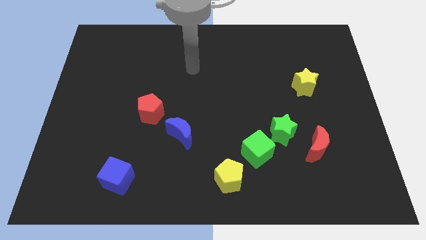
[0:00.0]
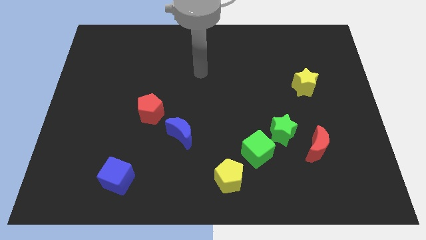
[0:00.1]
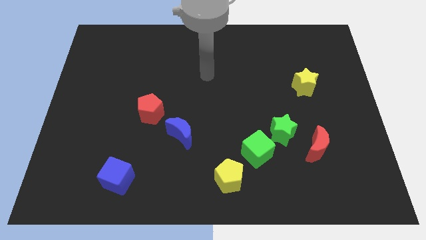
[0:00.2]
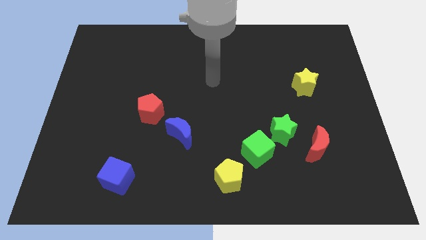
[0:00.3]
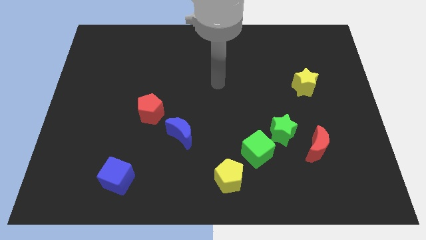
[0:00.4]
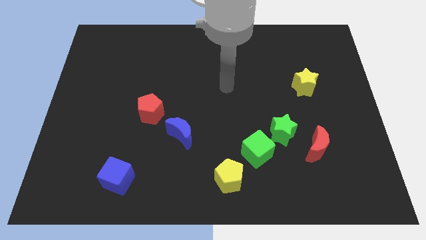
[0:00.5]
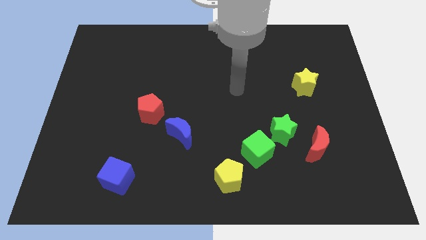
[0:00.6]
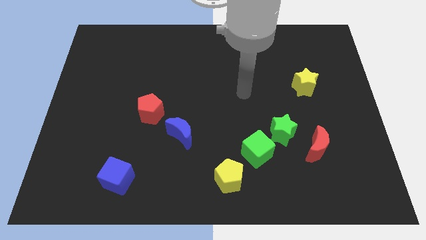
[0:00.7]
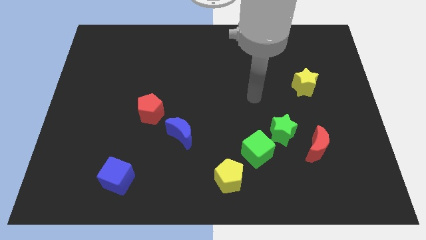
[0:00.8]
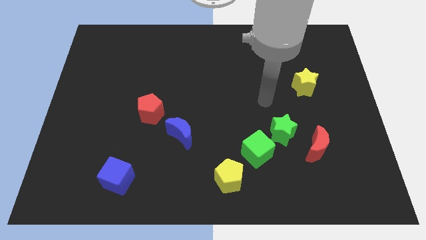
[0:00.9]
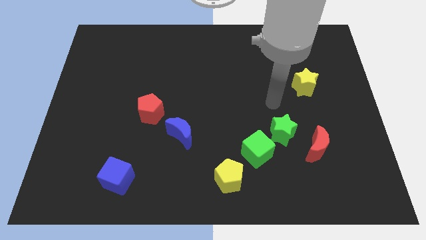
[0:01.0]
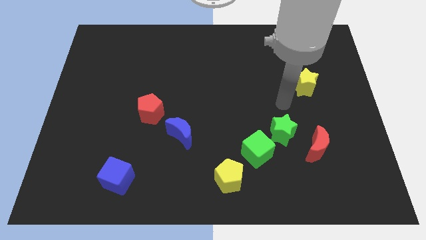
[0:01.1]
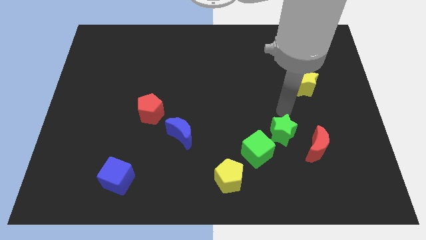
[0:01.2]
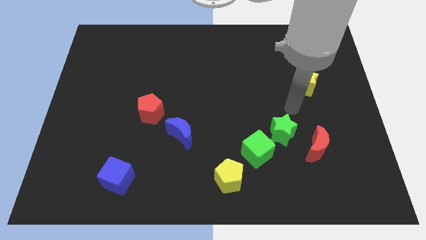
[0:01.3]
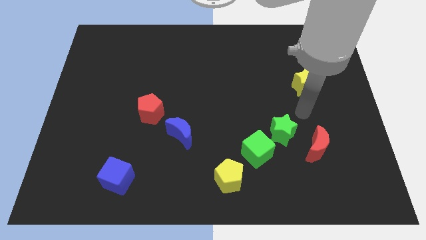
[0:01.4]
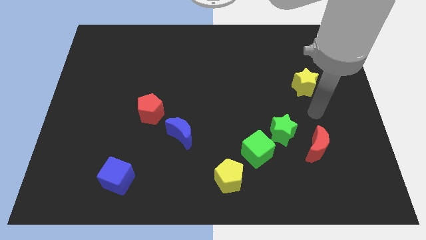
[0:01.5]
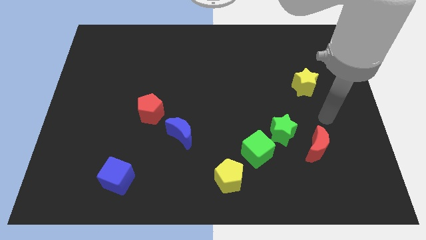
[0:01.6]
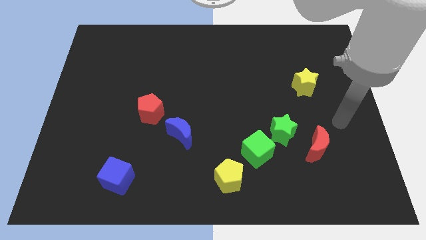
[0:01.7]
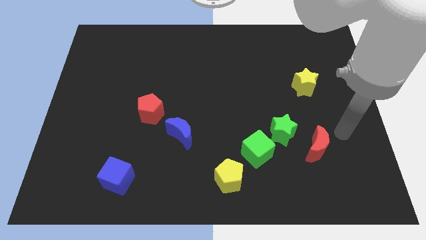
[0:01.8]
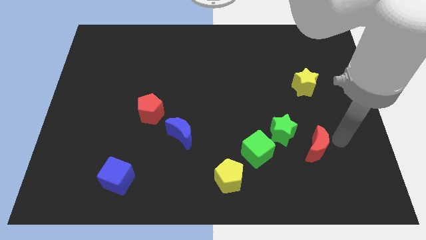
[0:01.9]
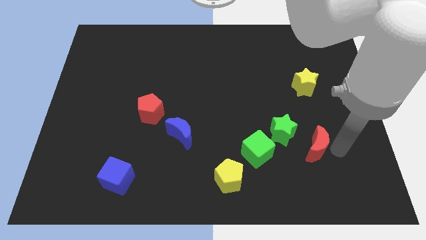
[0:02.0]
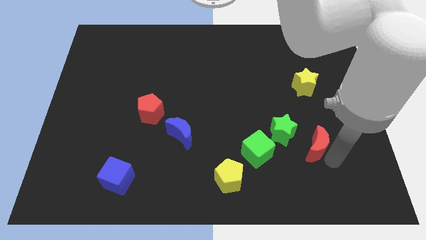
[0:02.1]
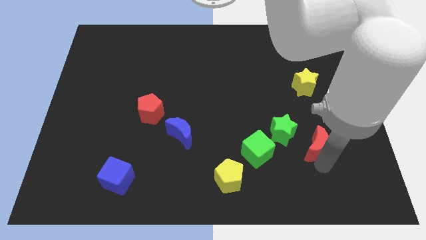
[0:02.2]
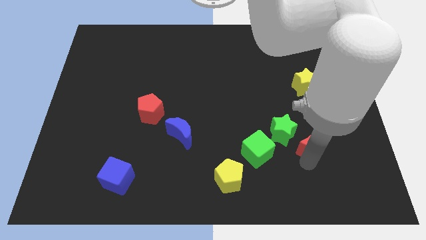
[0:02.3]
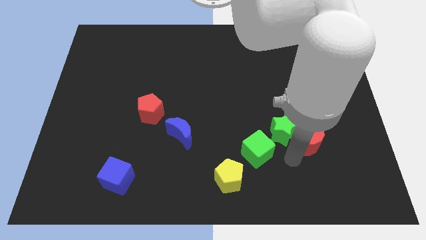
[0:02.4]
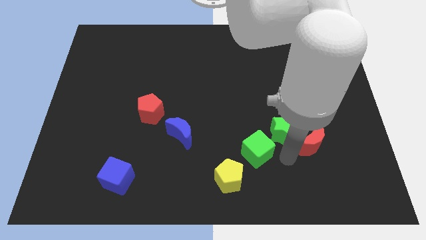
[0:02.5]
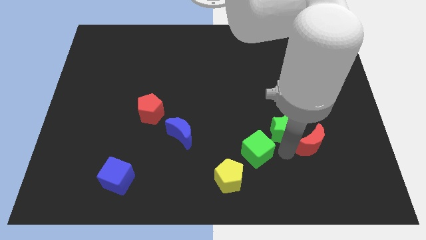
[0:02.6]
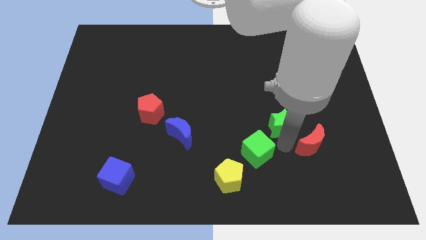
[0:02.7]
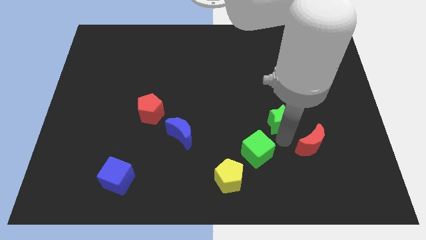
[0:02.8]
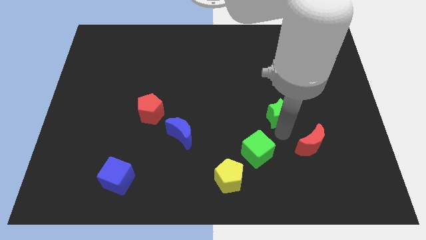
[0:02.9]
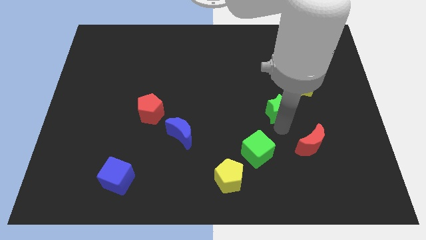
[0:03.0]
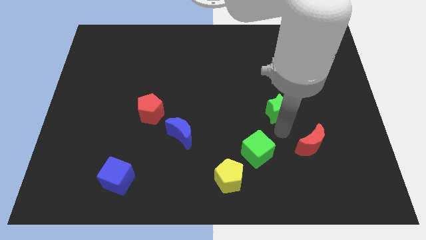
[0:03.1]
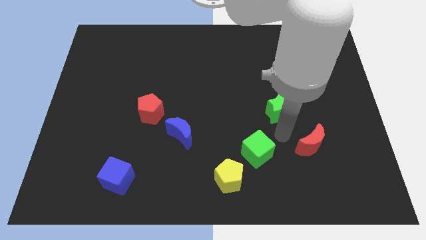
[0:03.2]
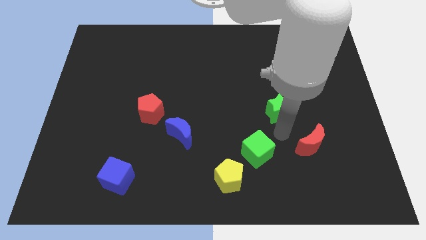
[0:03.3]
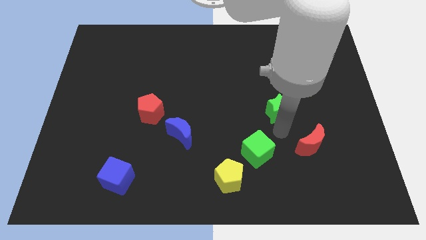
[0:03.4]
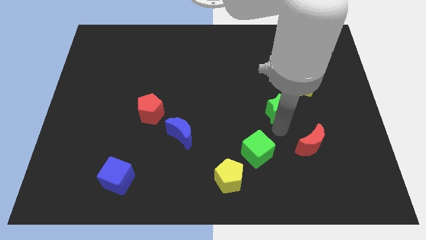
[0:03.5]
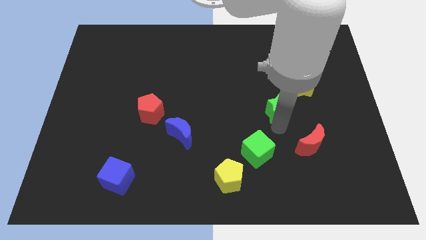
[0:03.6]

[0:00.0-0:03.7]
move the green star away from the green cube and red moon

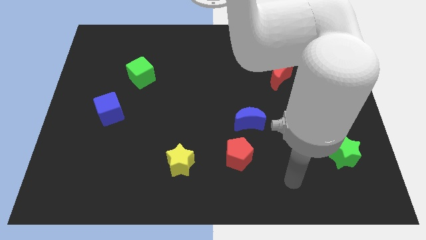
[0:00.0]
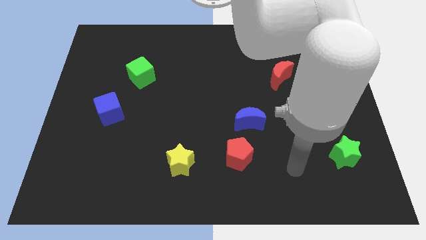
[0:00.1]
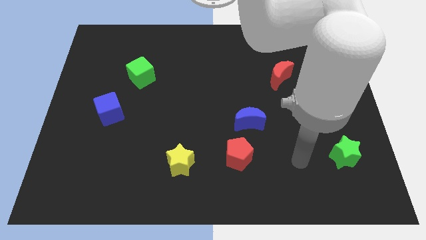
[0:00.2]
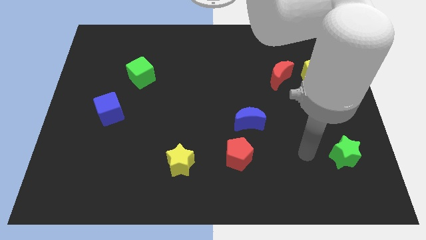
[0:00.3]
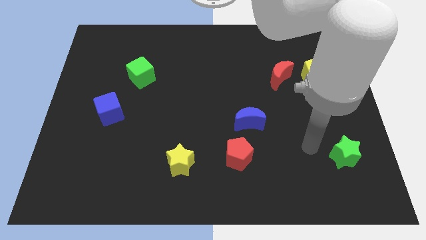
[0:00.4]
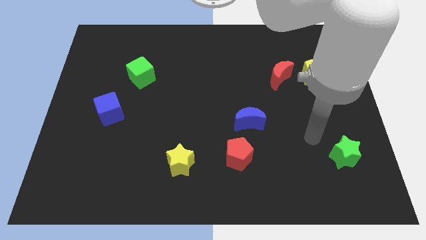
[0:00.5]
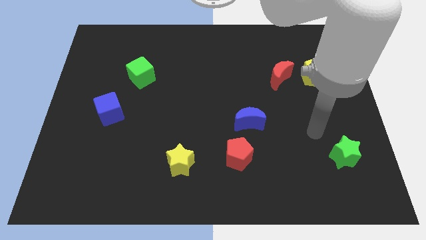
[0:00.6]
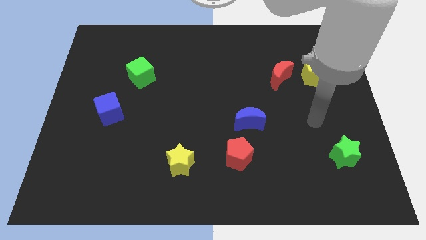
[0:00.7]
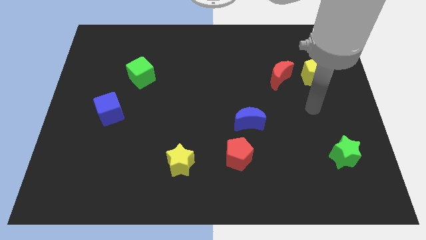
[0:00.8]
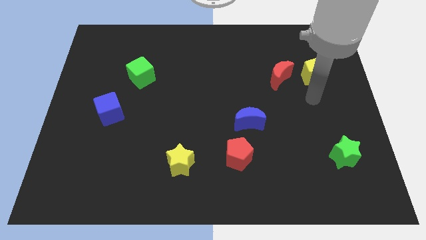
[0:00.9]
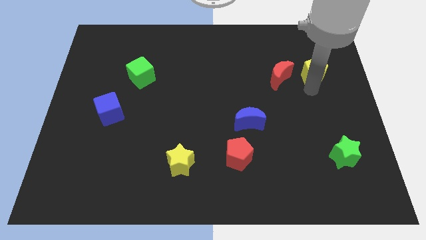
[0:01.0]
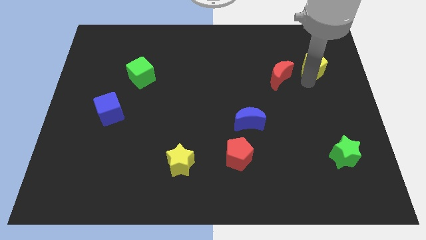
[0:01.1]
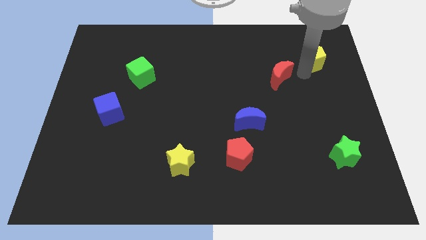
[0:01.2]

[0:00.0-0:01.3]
pull the red moon apart from the yellow pentagon

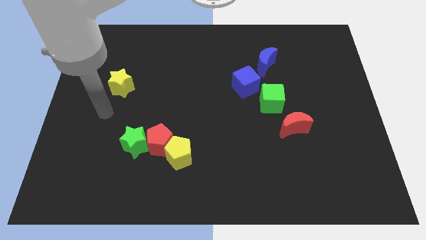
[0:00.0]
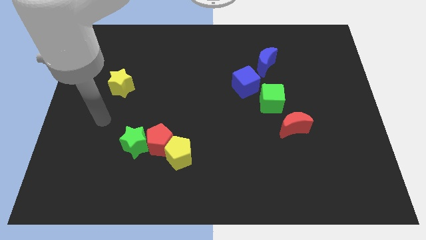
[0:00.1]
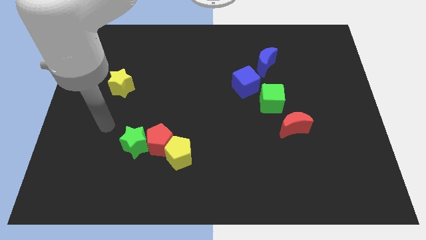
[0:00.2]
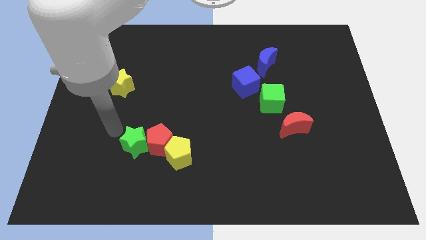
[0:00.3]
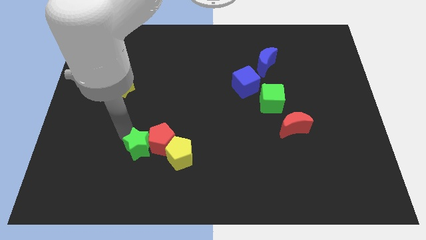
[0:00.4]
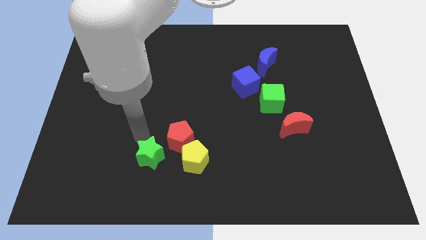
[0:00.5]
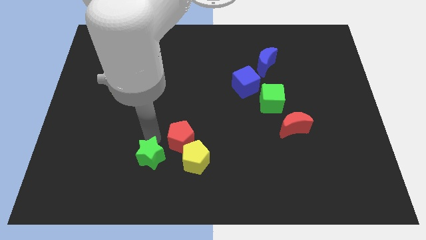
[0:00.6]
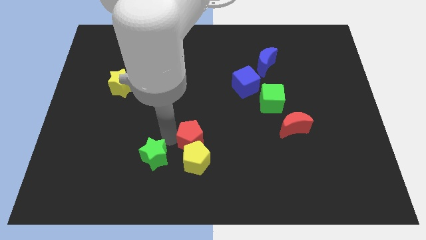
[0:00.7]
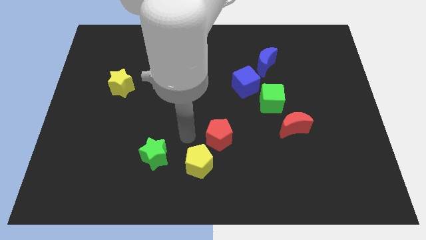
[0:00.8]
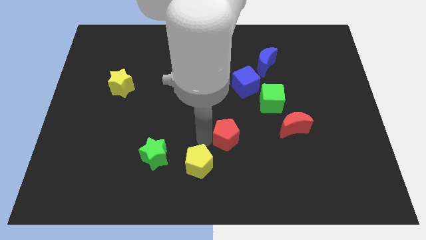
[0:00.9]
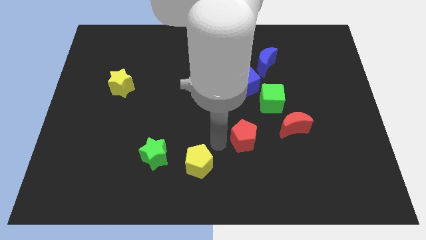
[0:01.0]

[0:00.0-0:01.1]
separate the yellow pentagon from the red pentagon

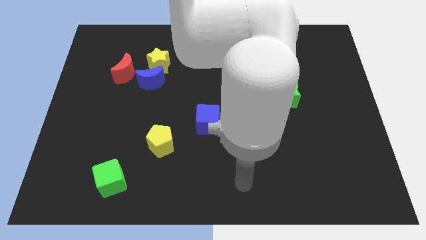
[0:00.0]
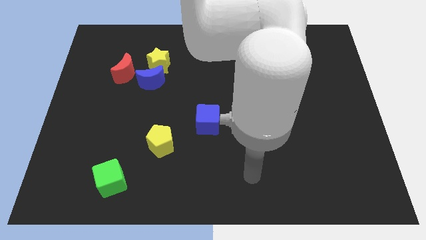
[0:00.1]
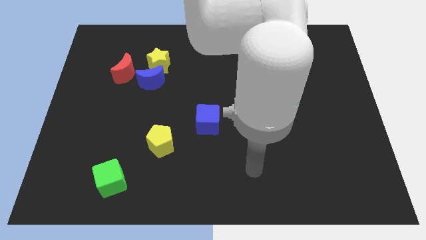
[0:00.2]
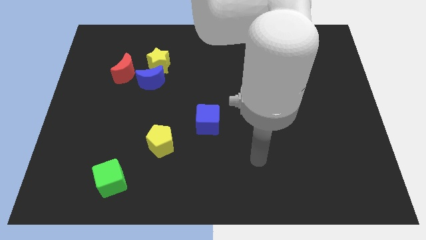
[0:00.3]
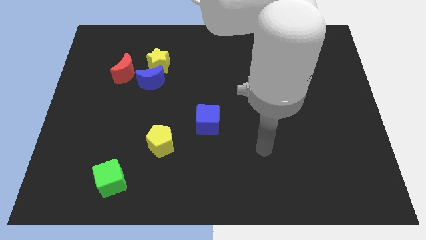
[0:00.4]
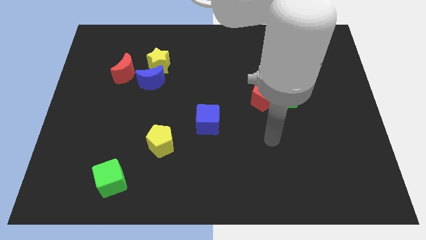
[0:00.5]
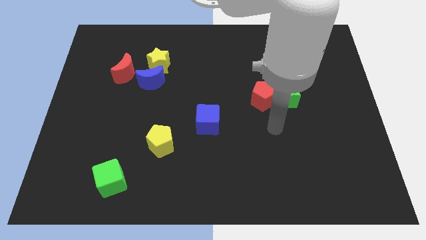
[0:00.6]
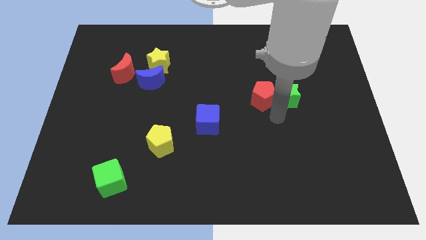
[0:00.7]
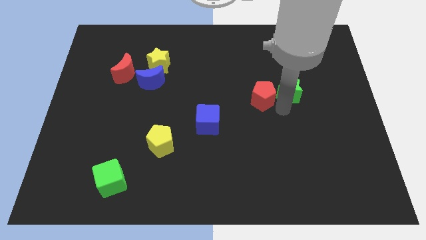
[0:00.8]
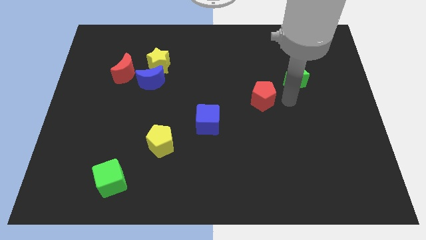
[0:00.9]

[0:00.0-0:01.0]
separate the red pentagon from the green star

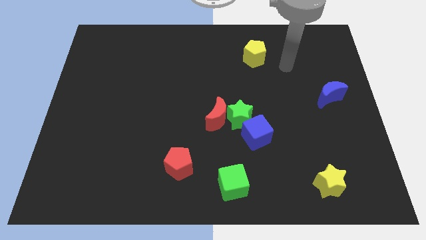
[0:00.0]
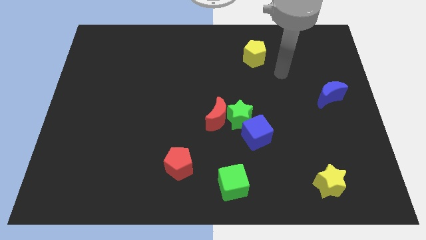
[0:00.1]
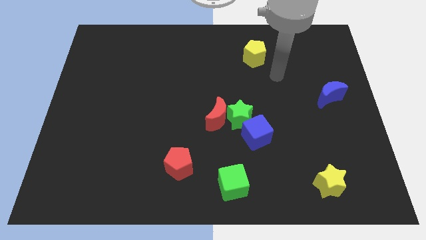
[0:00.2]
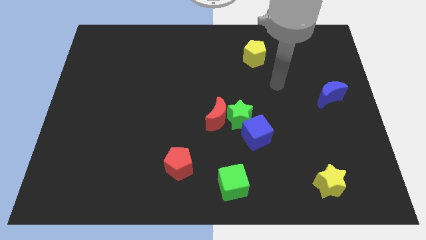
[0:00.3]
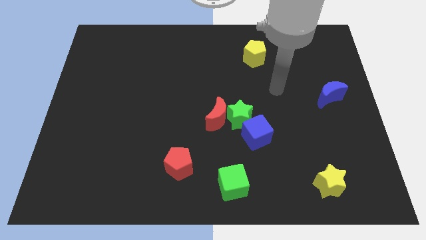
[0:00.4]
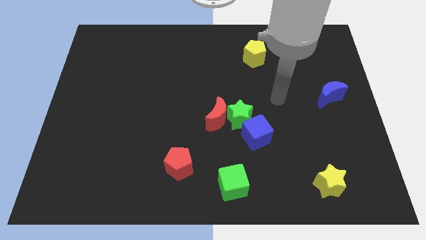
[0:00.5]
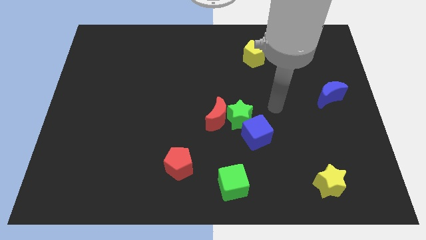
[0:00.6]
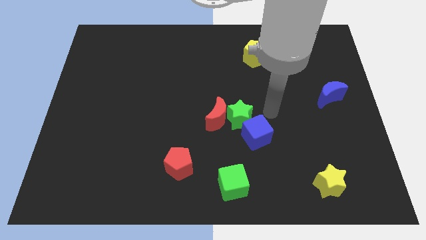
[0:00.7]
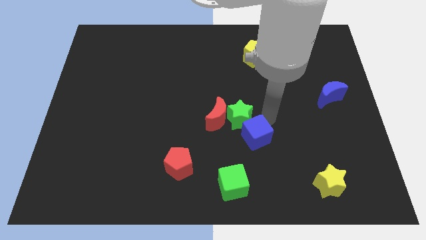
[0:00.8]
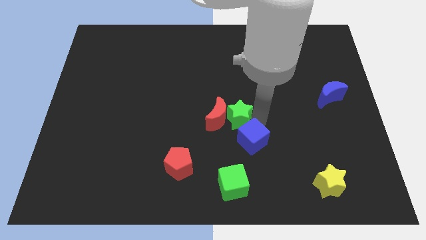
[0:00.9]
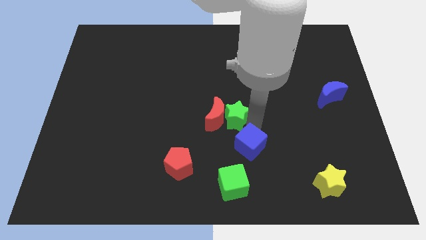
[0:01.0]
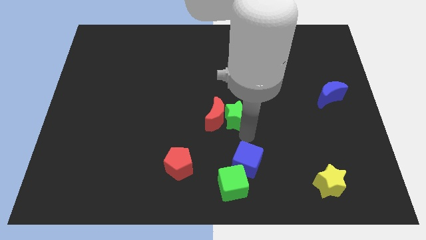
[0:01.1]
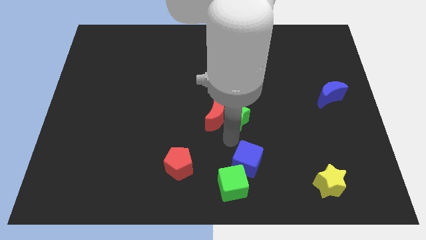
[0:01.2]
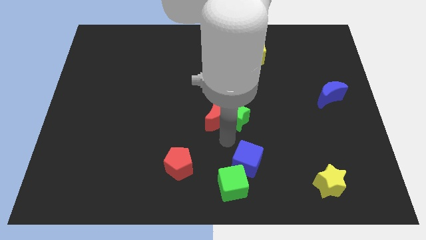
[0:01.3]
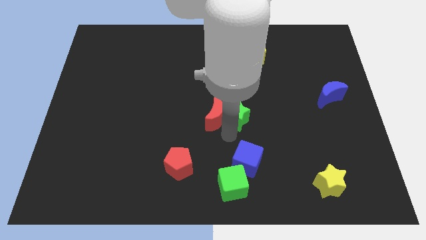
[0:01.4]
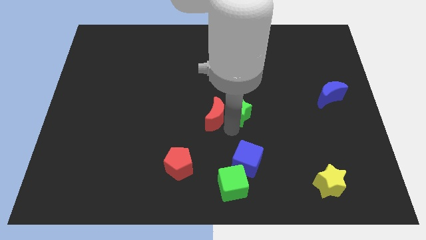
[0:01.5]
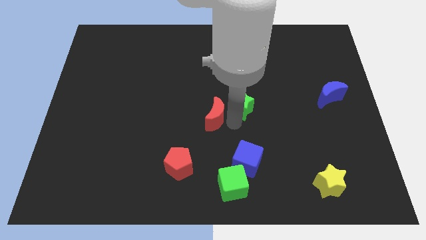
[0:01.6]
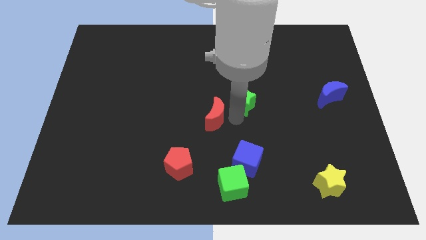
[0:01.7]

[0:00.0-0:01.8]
pull the green star apart from the red moon and blue cube

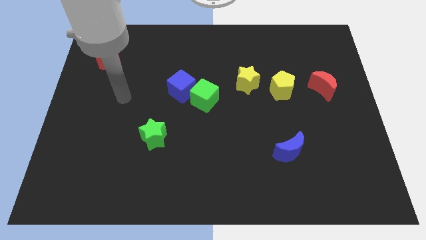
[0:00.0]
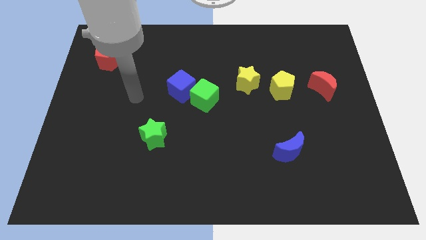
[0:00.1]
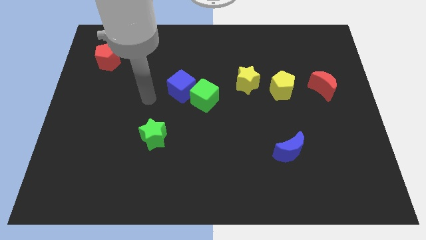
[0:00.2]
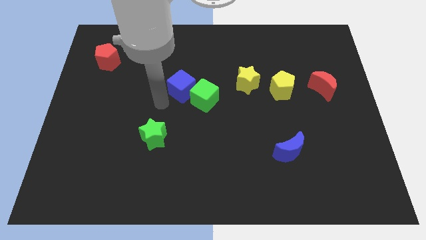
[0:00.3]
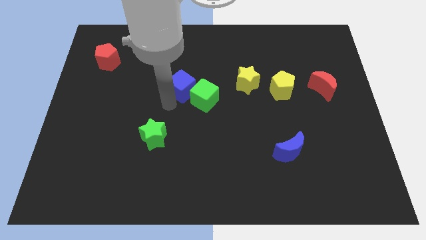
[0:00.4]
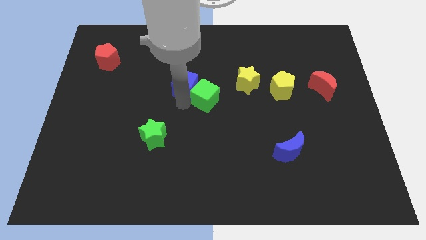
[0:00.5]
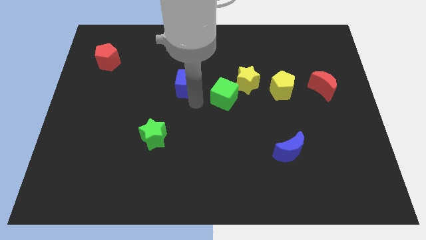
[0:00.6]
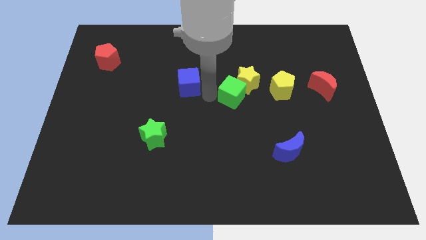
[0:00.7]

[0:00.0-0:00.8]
move the blue cube away from the green cube
